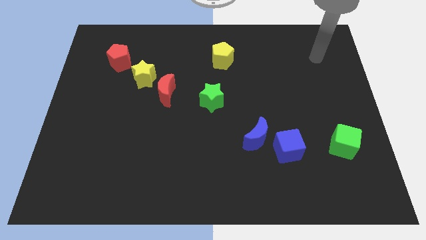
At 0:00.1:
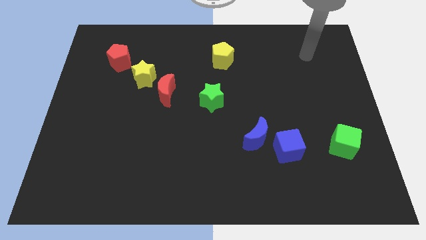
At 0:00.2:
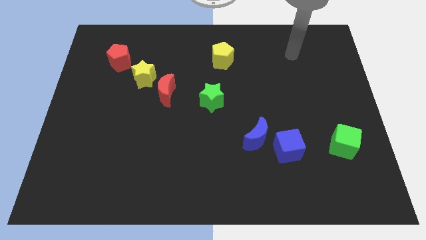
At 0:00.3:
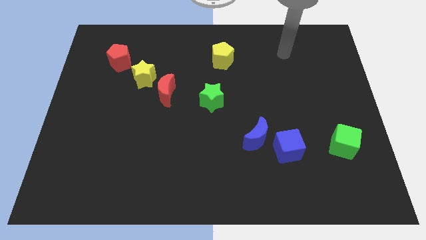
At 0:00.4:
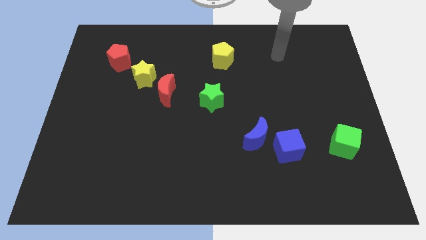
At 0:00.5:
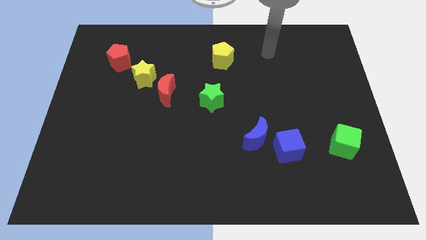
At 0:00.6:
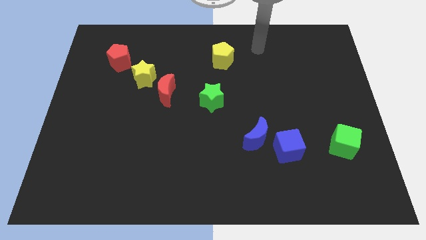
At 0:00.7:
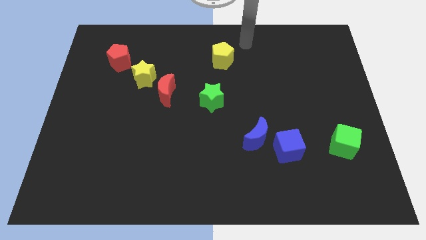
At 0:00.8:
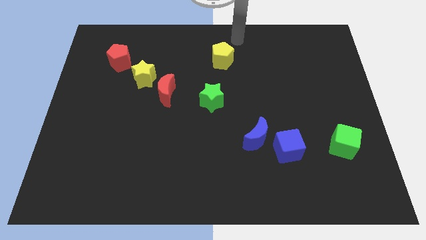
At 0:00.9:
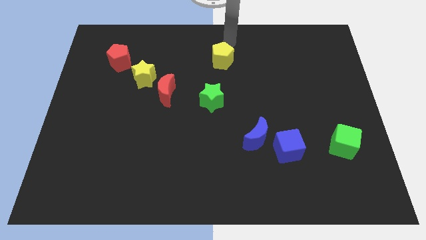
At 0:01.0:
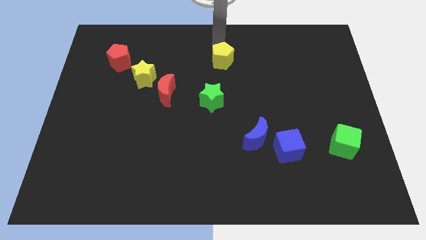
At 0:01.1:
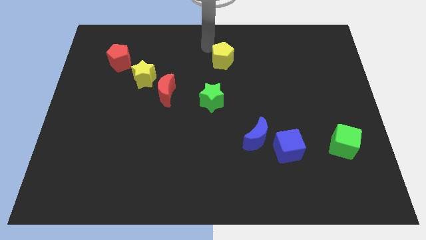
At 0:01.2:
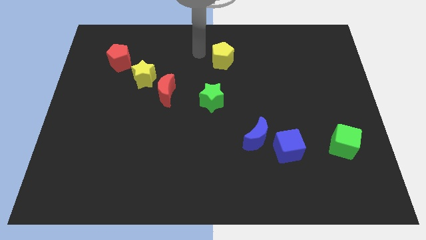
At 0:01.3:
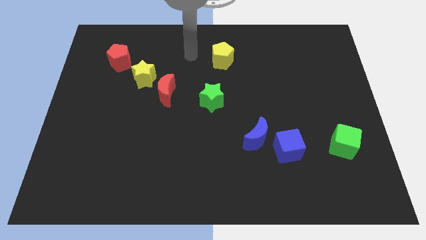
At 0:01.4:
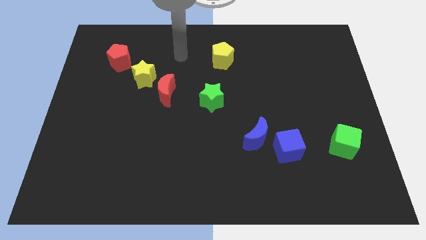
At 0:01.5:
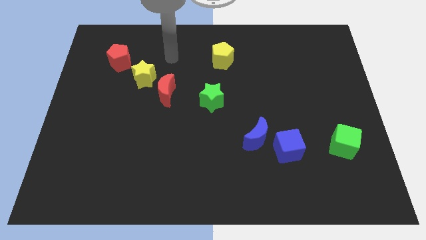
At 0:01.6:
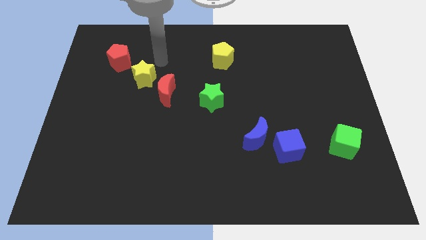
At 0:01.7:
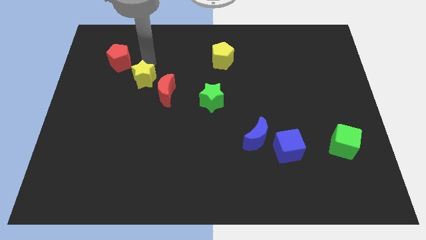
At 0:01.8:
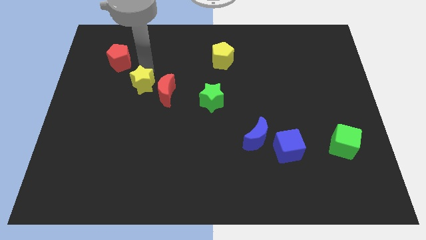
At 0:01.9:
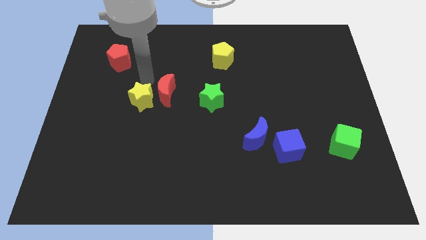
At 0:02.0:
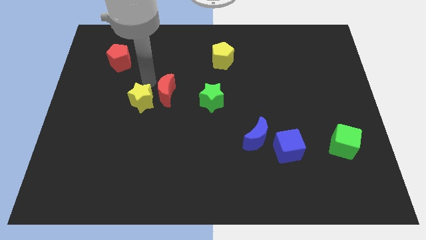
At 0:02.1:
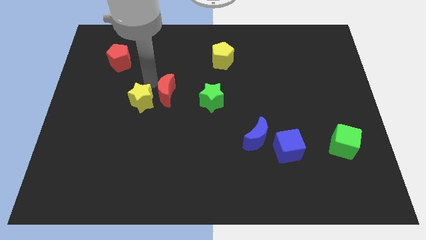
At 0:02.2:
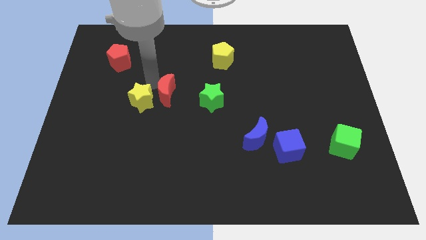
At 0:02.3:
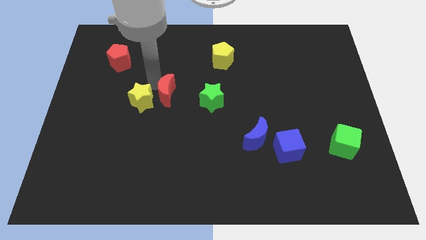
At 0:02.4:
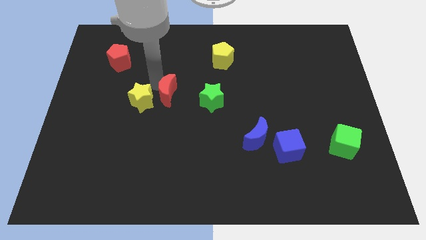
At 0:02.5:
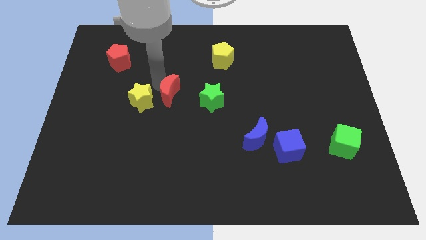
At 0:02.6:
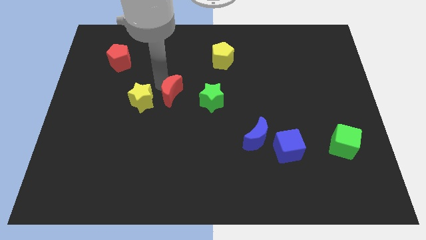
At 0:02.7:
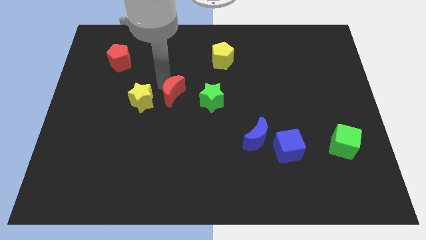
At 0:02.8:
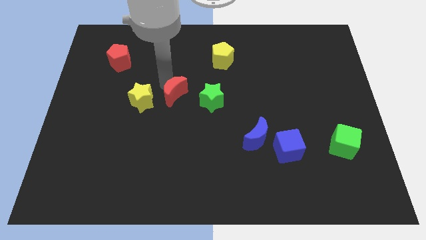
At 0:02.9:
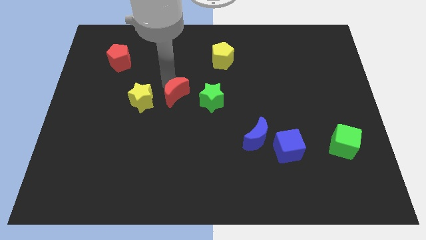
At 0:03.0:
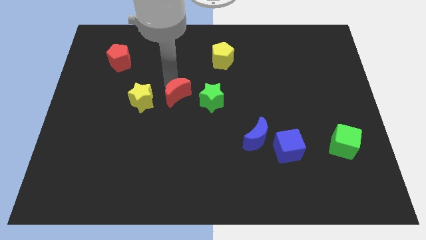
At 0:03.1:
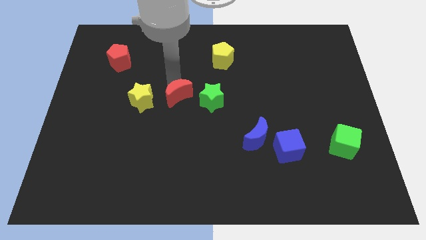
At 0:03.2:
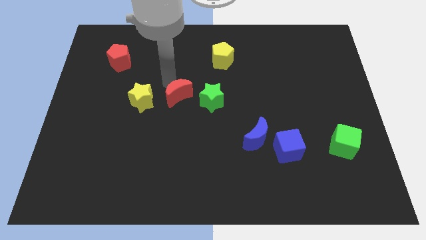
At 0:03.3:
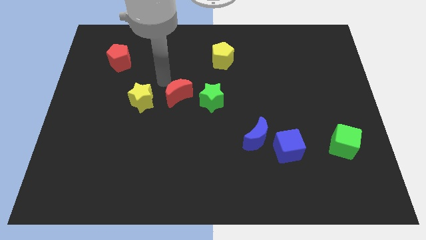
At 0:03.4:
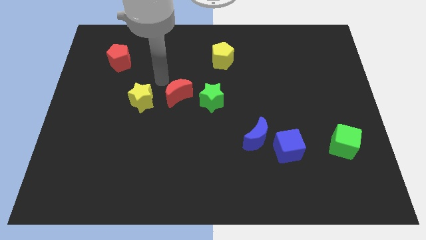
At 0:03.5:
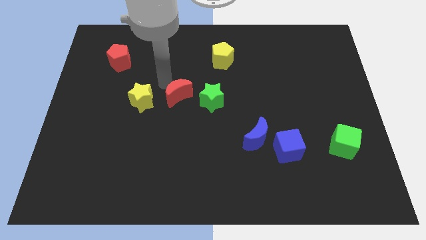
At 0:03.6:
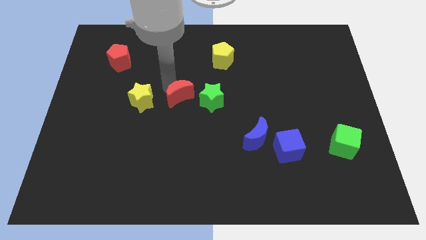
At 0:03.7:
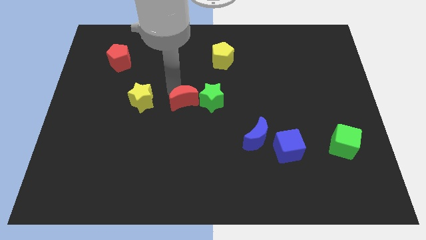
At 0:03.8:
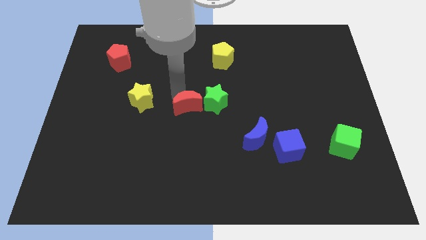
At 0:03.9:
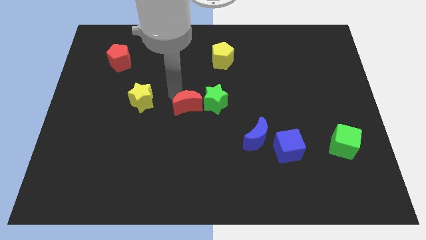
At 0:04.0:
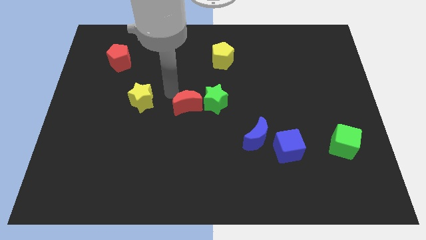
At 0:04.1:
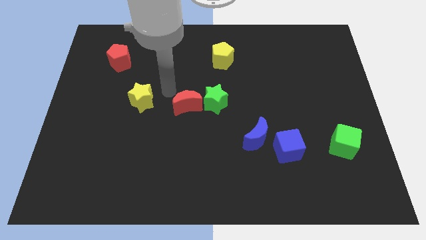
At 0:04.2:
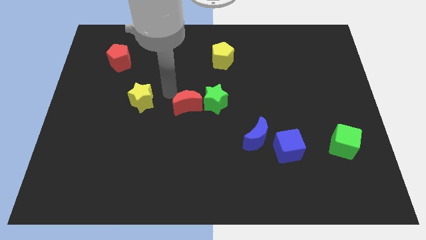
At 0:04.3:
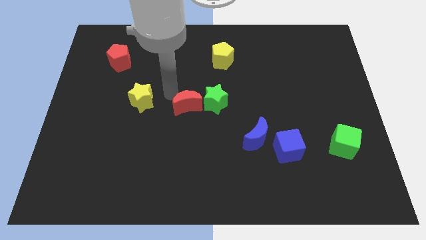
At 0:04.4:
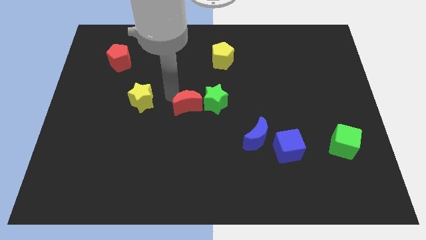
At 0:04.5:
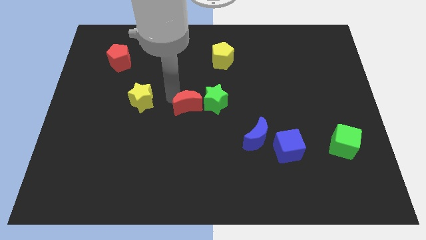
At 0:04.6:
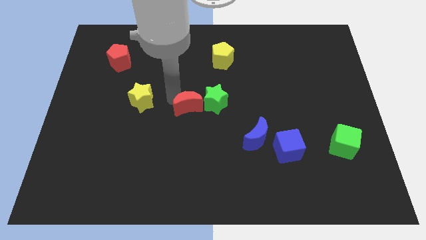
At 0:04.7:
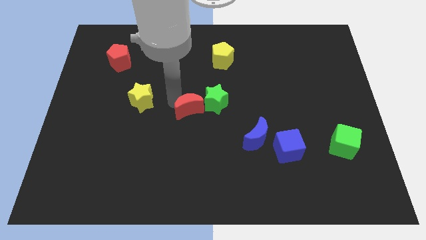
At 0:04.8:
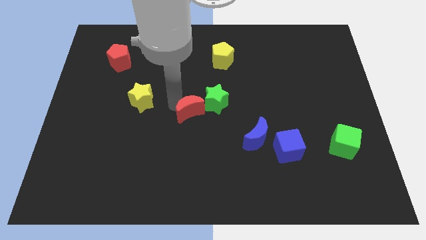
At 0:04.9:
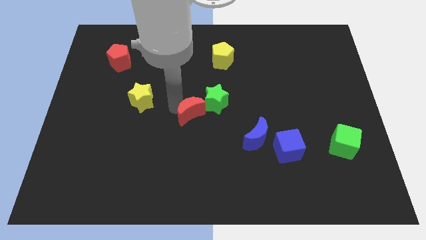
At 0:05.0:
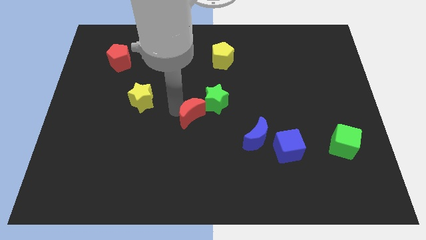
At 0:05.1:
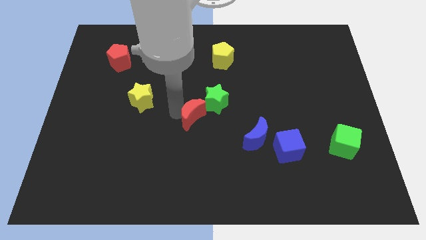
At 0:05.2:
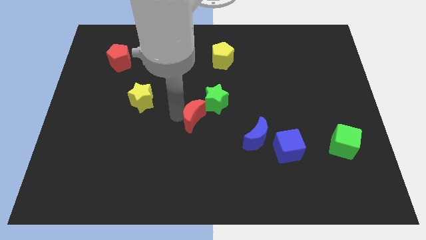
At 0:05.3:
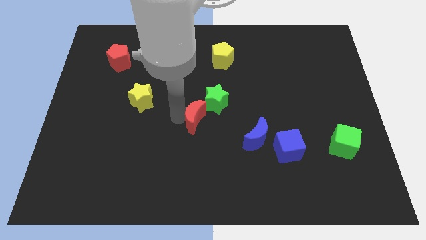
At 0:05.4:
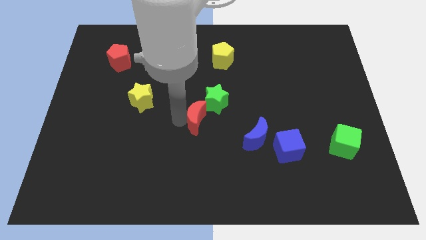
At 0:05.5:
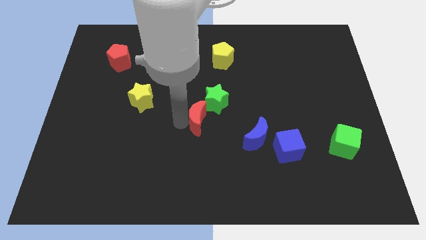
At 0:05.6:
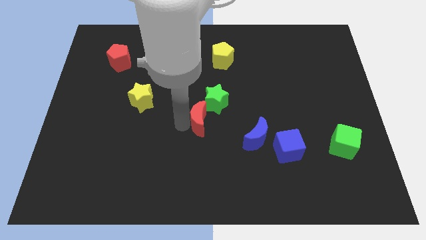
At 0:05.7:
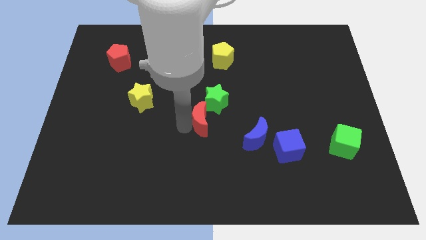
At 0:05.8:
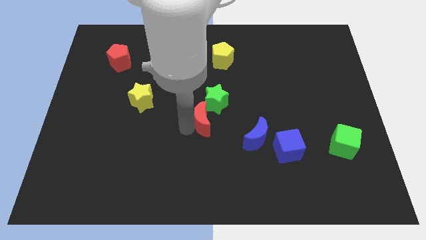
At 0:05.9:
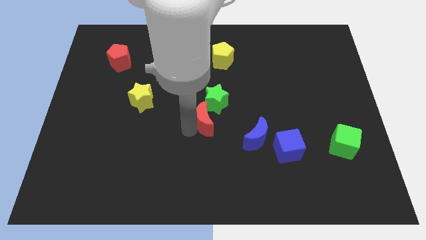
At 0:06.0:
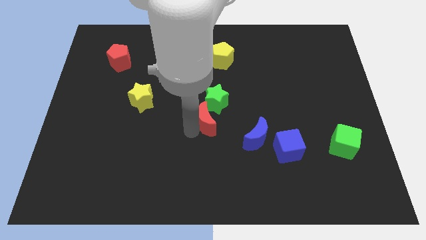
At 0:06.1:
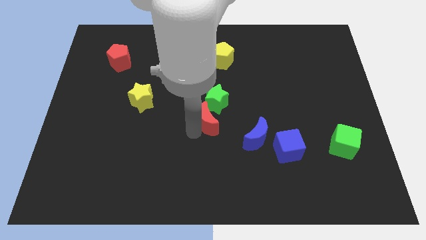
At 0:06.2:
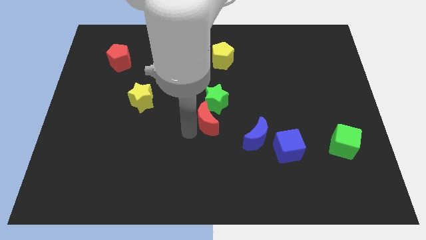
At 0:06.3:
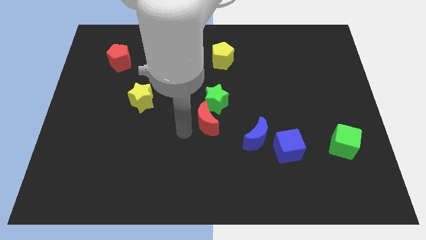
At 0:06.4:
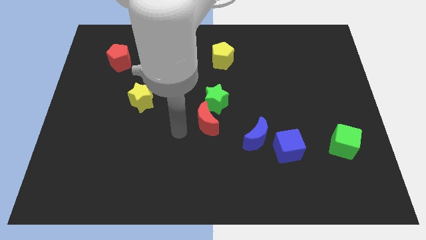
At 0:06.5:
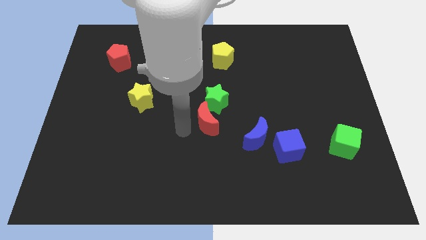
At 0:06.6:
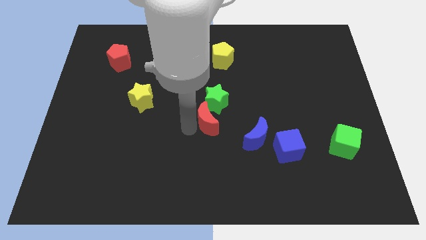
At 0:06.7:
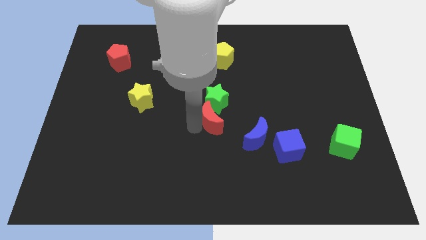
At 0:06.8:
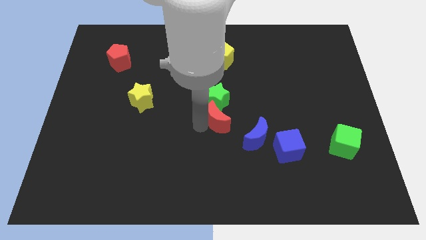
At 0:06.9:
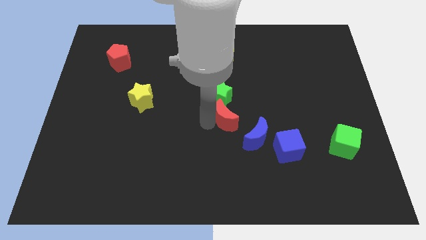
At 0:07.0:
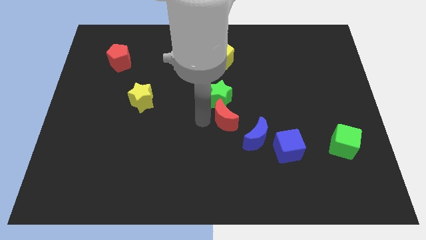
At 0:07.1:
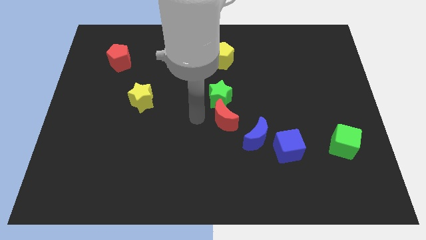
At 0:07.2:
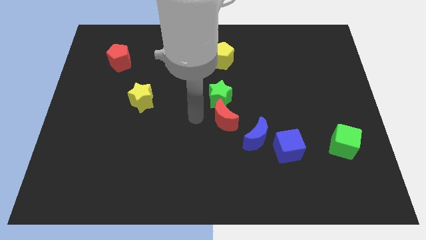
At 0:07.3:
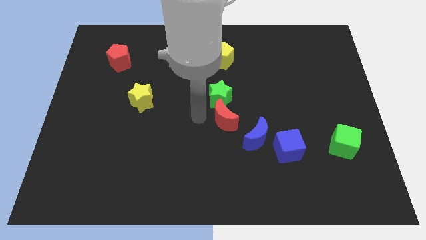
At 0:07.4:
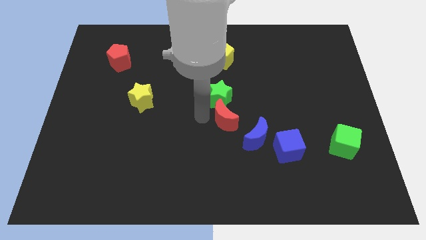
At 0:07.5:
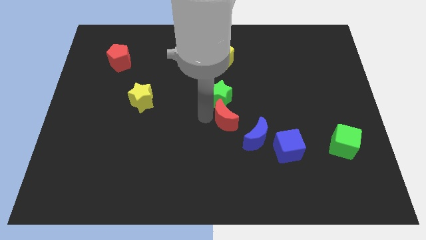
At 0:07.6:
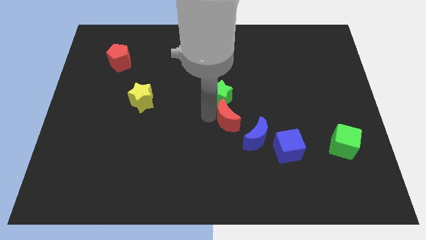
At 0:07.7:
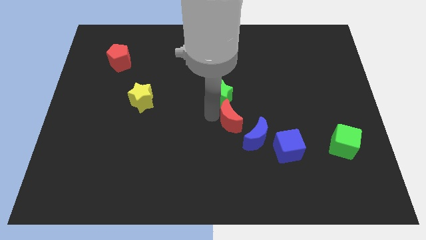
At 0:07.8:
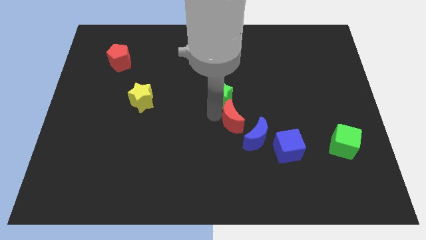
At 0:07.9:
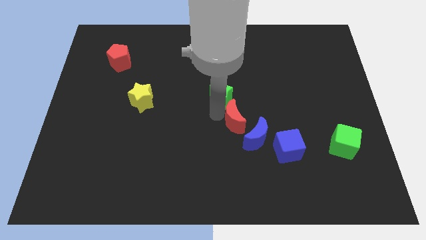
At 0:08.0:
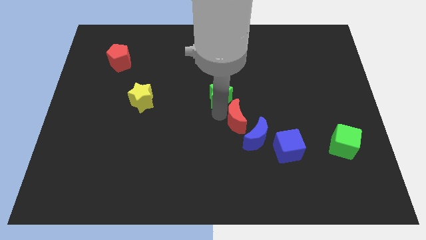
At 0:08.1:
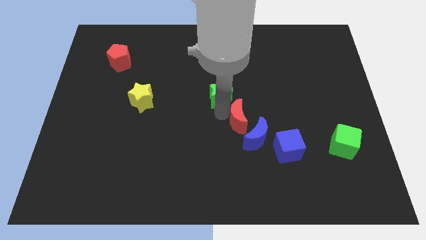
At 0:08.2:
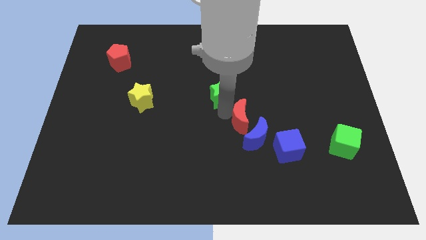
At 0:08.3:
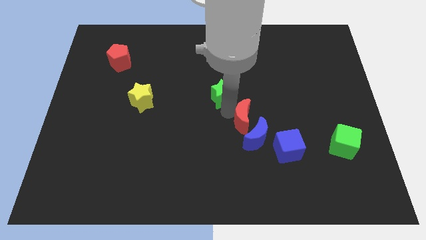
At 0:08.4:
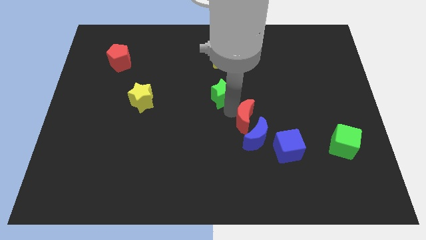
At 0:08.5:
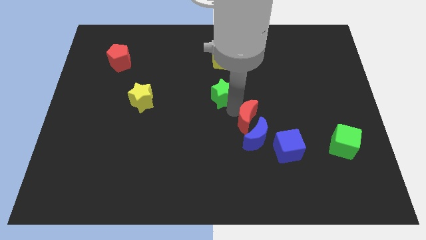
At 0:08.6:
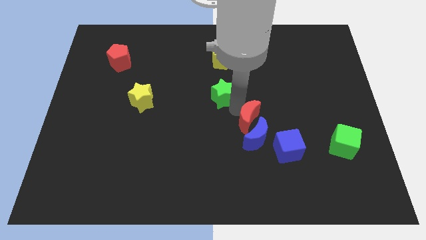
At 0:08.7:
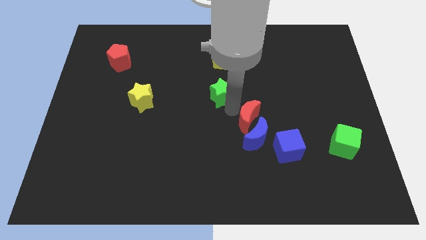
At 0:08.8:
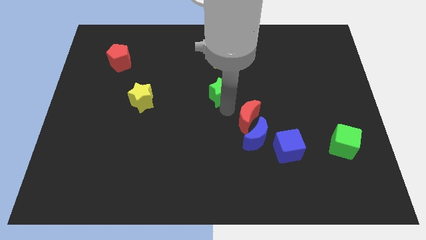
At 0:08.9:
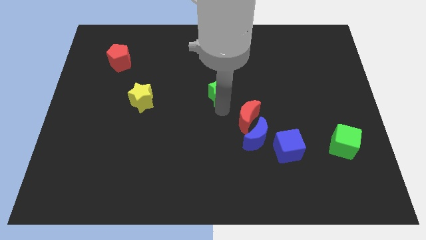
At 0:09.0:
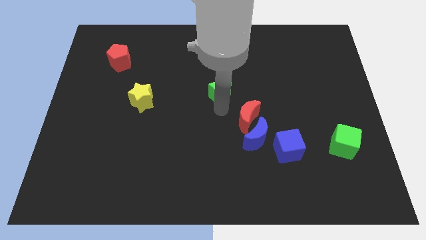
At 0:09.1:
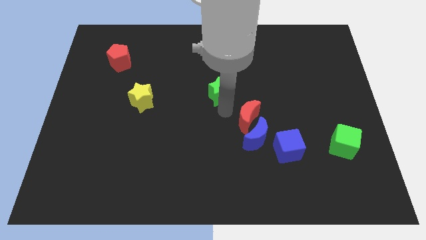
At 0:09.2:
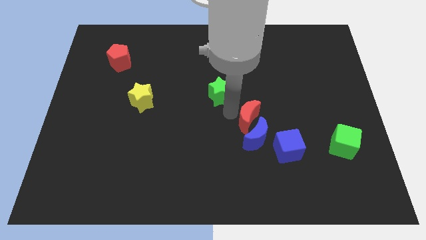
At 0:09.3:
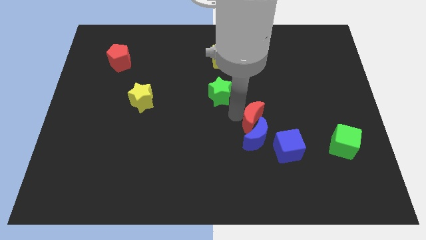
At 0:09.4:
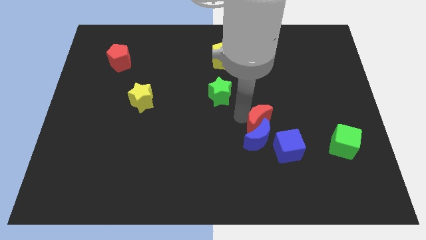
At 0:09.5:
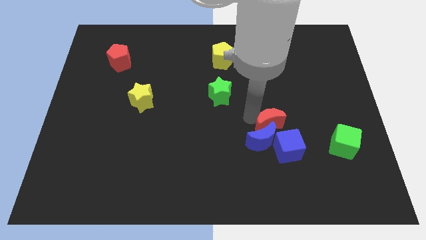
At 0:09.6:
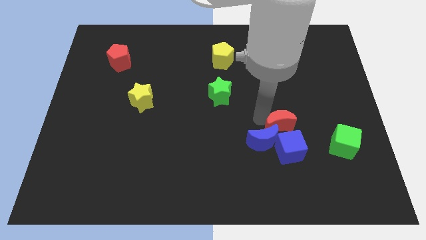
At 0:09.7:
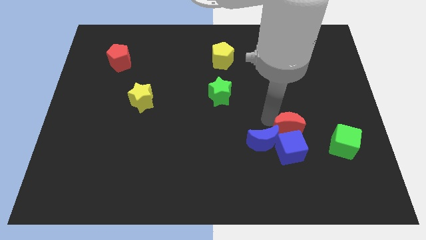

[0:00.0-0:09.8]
move the red moon to the blue cube
